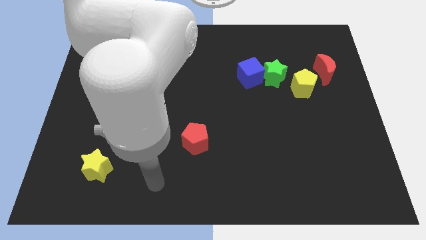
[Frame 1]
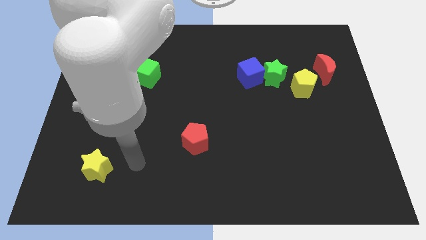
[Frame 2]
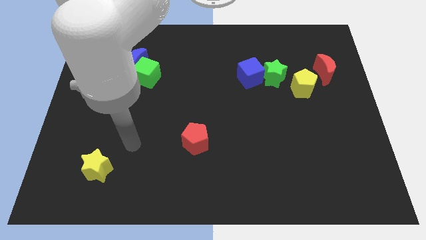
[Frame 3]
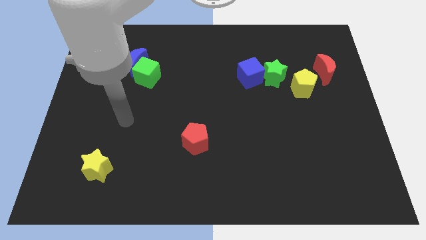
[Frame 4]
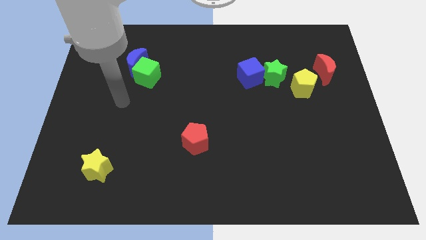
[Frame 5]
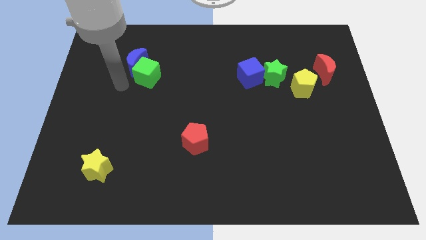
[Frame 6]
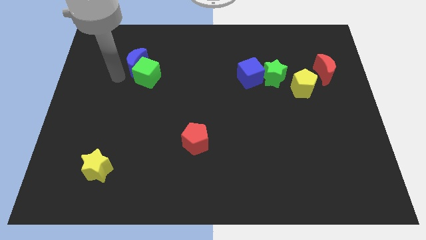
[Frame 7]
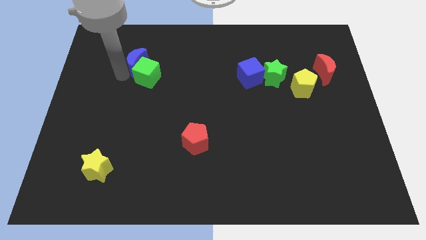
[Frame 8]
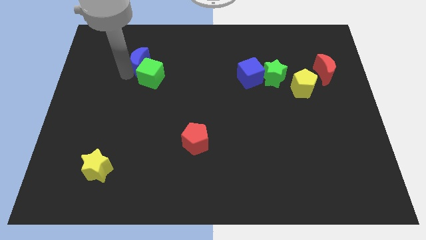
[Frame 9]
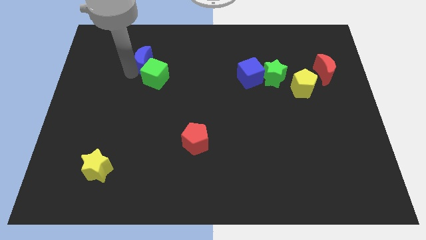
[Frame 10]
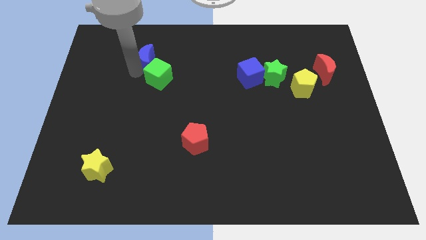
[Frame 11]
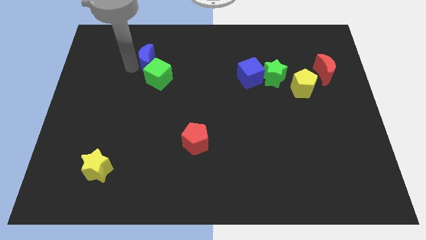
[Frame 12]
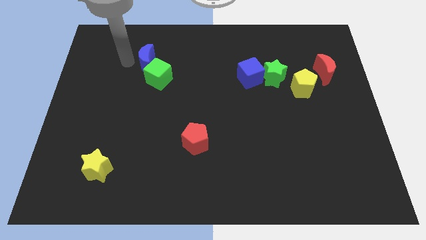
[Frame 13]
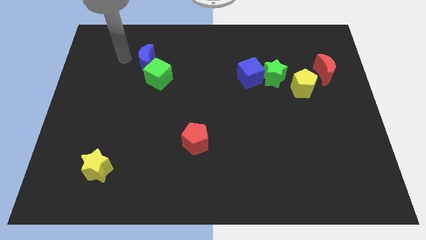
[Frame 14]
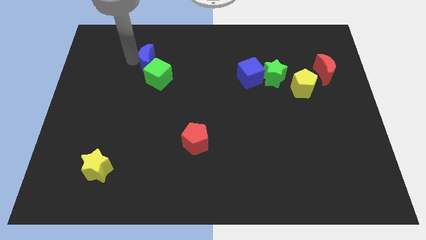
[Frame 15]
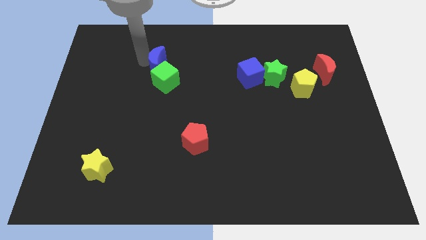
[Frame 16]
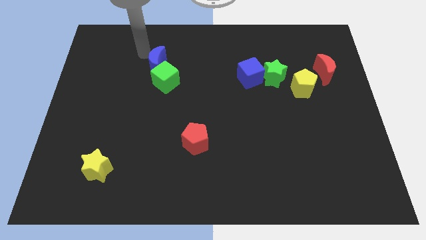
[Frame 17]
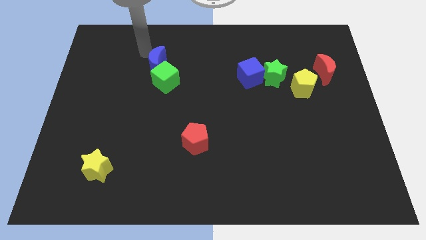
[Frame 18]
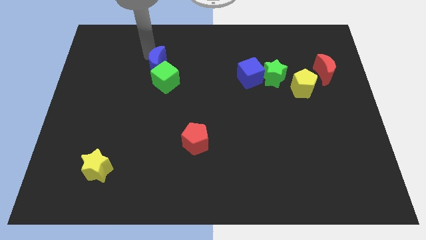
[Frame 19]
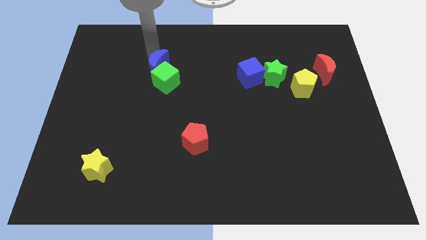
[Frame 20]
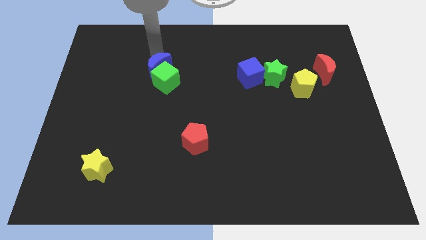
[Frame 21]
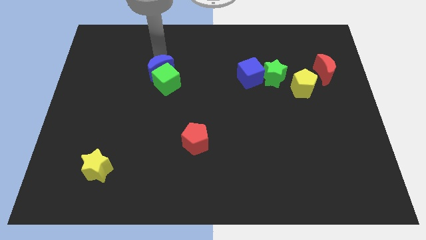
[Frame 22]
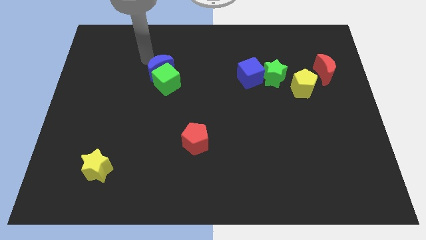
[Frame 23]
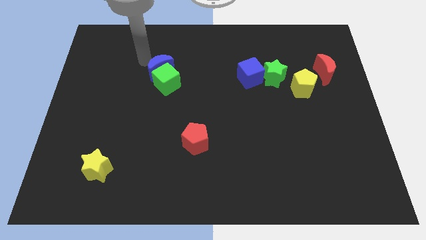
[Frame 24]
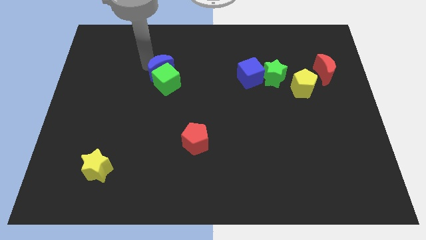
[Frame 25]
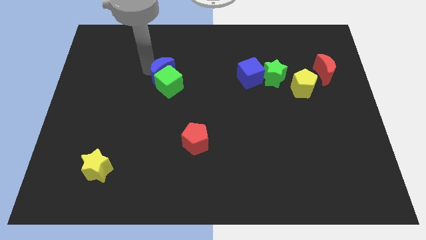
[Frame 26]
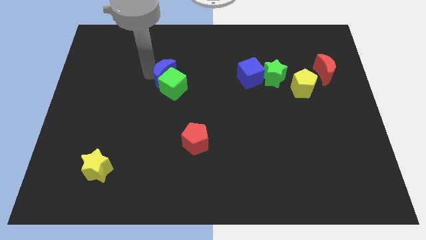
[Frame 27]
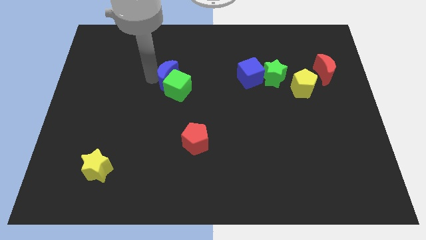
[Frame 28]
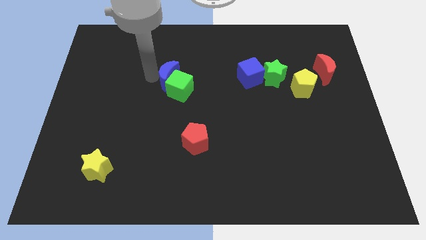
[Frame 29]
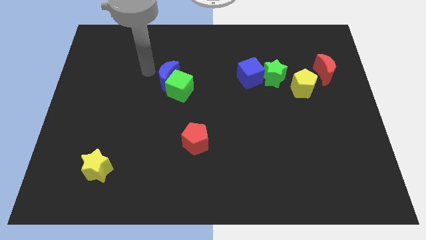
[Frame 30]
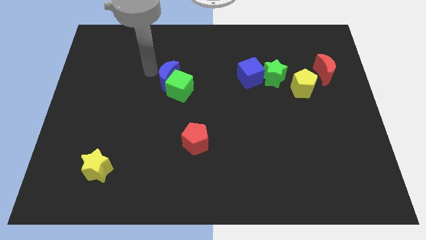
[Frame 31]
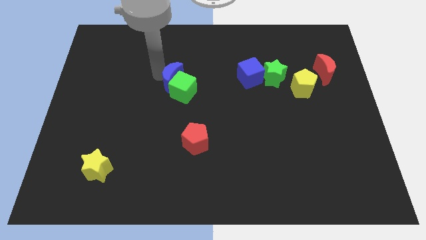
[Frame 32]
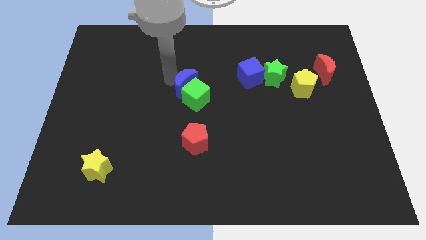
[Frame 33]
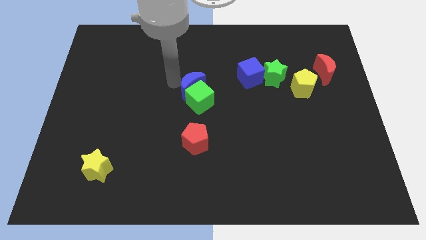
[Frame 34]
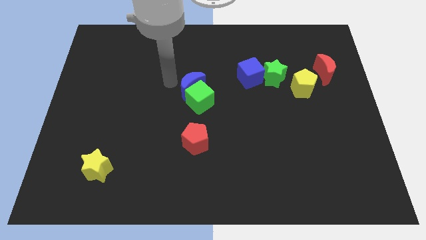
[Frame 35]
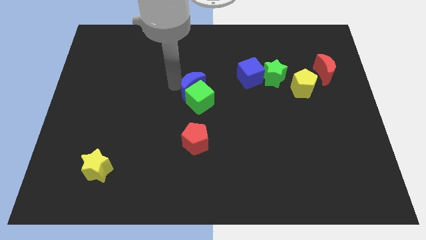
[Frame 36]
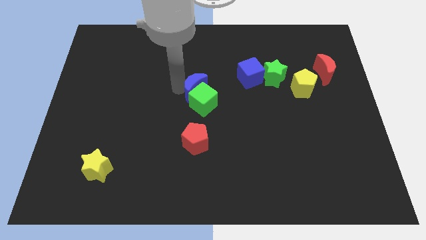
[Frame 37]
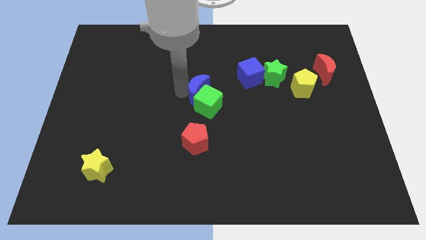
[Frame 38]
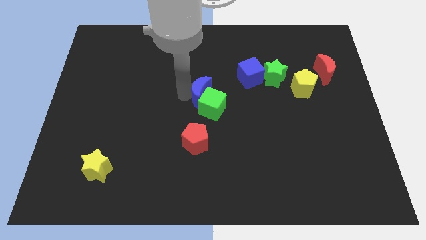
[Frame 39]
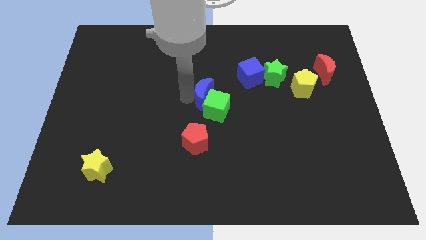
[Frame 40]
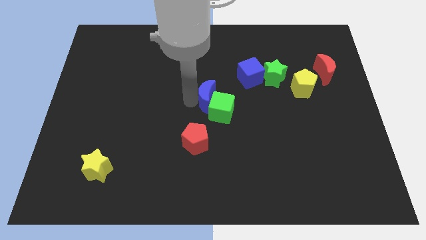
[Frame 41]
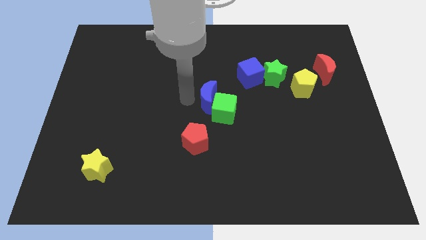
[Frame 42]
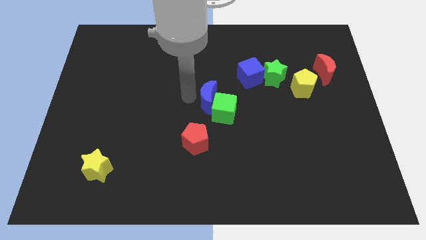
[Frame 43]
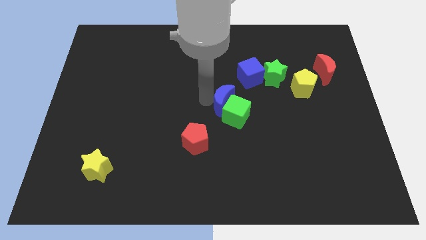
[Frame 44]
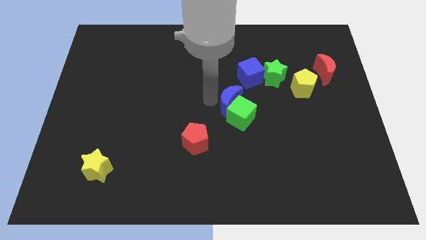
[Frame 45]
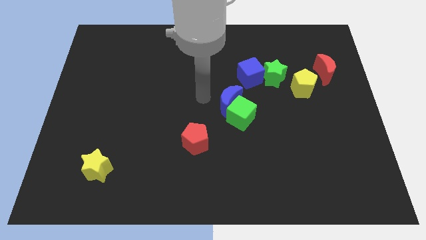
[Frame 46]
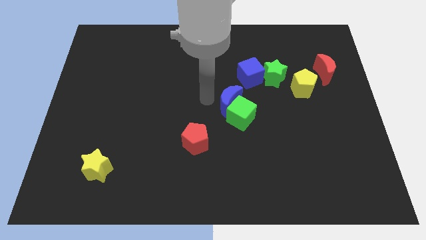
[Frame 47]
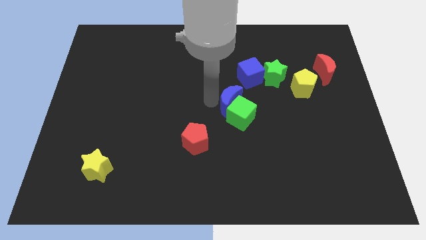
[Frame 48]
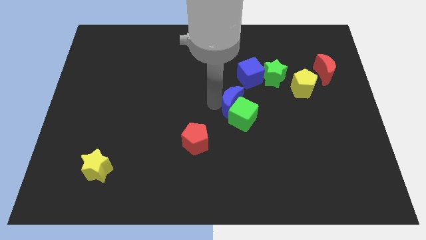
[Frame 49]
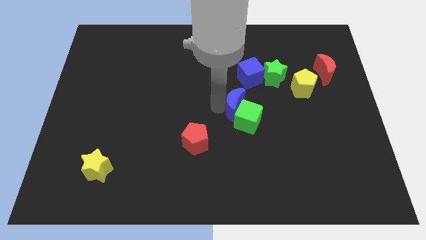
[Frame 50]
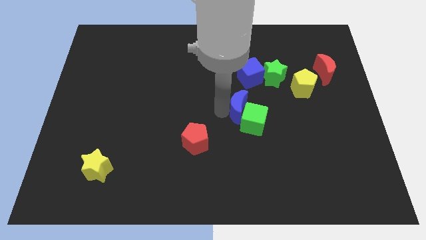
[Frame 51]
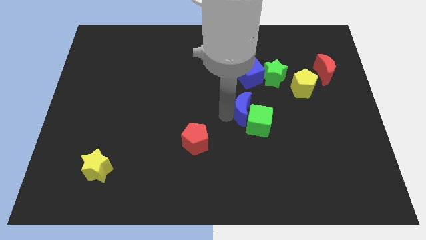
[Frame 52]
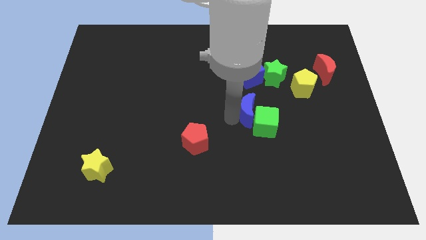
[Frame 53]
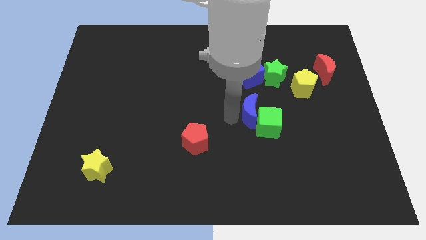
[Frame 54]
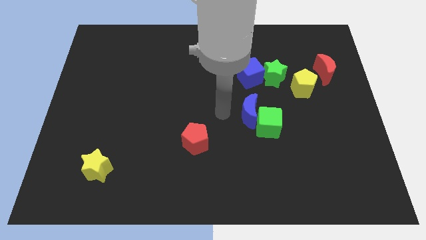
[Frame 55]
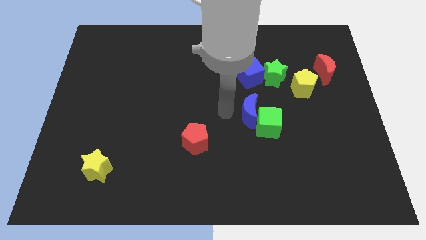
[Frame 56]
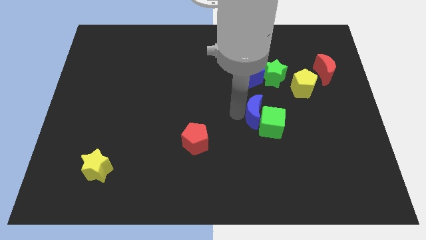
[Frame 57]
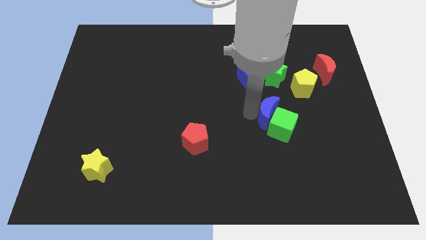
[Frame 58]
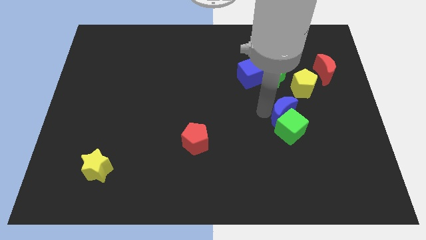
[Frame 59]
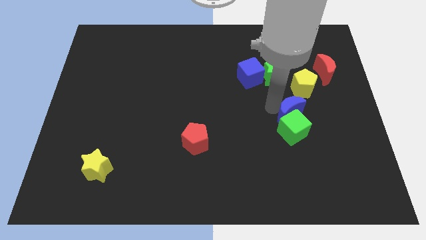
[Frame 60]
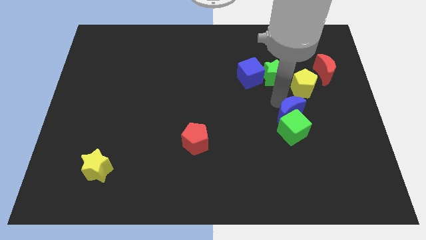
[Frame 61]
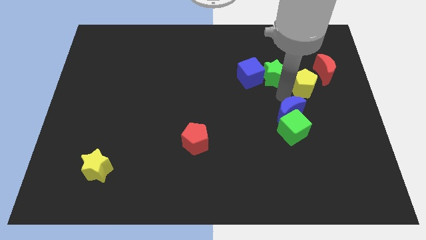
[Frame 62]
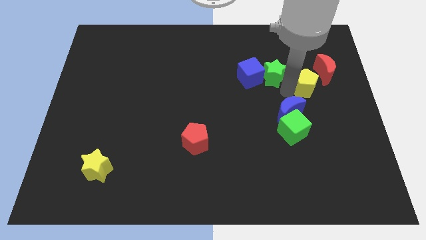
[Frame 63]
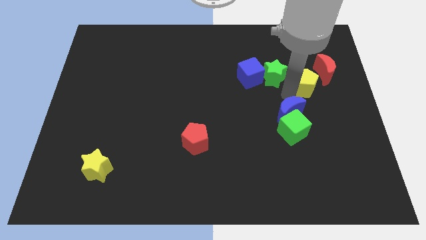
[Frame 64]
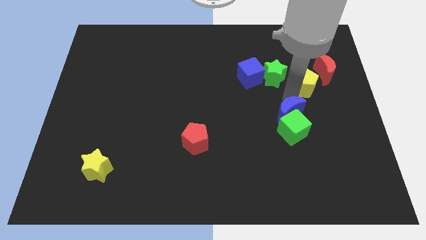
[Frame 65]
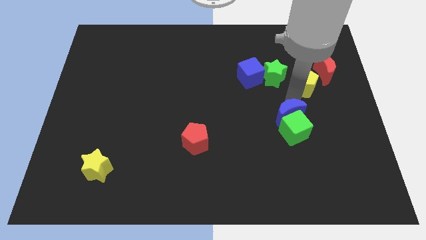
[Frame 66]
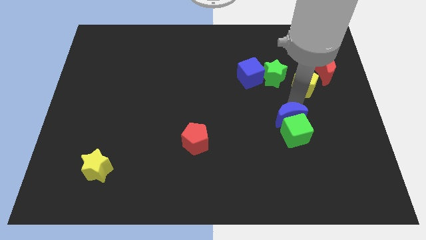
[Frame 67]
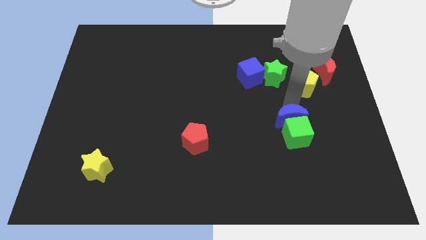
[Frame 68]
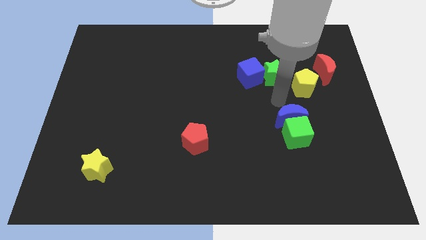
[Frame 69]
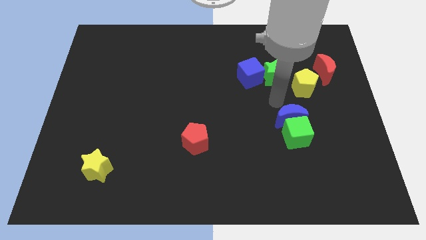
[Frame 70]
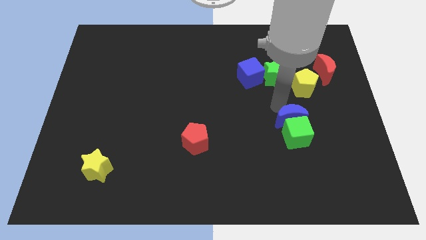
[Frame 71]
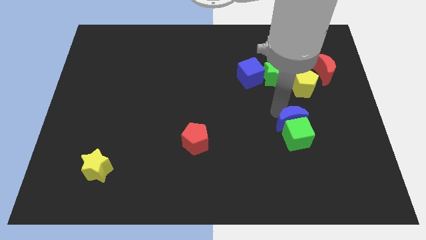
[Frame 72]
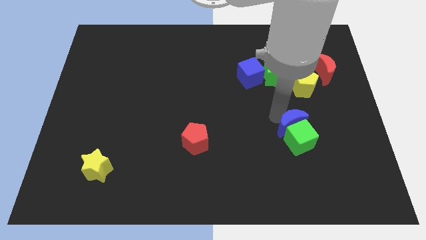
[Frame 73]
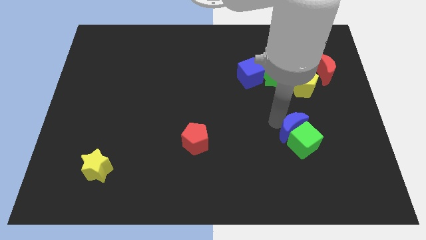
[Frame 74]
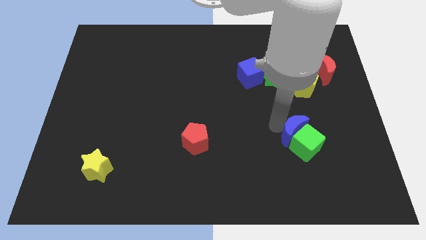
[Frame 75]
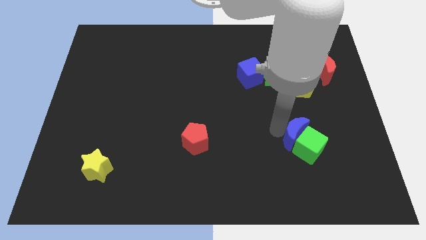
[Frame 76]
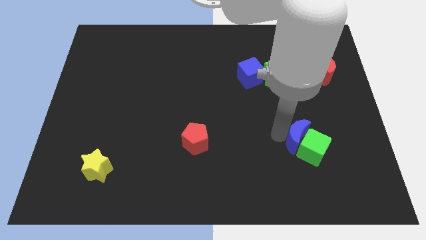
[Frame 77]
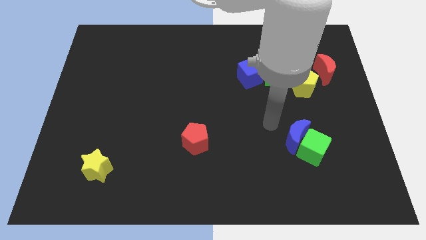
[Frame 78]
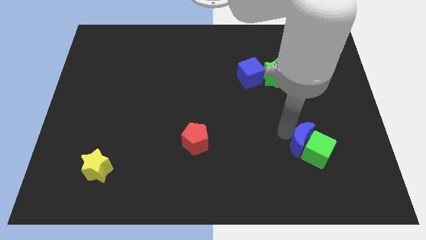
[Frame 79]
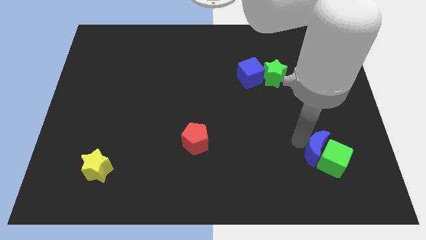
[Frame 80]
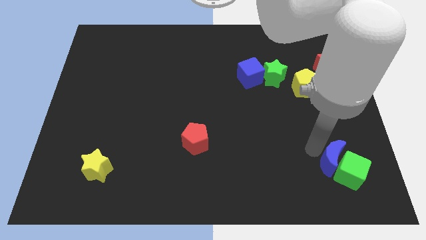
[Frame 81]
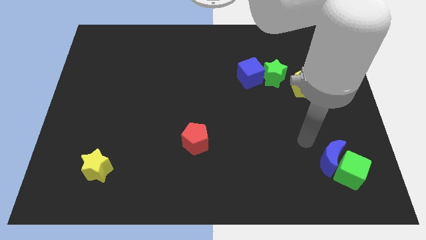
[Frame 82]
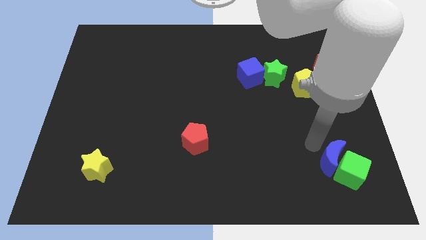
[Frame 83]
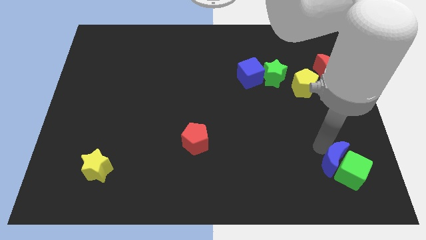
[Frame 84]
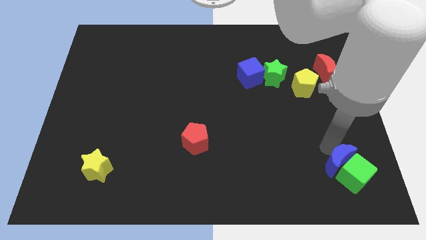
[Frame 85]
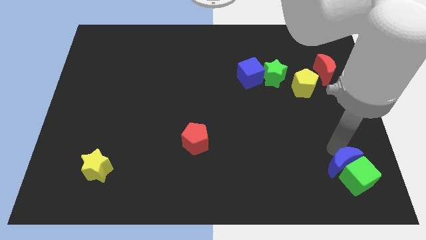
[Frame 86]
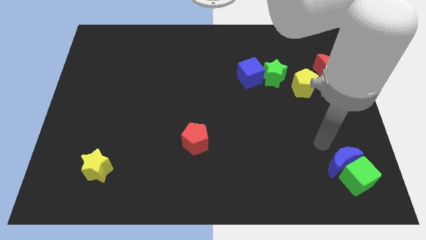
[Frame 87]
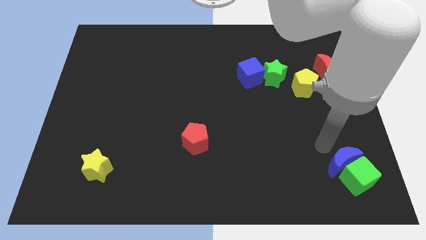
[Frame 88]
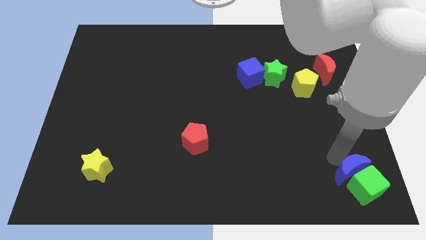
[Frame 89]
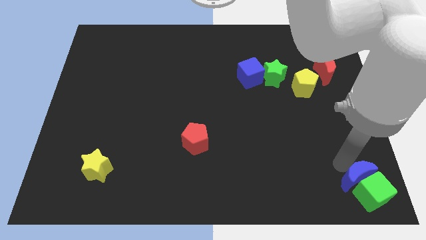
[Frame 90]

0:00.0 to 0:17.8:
move the blue moon to the lower right corner
